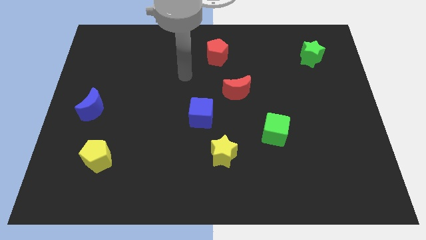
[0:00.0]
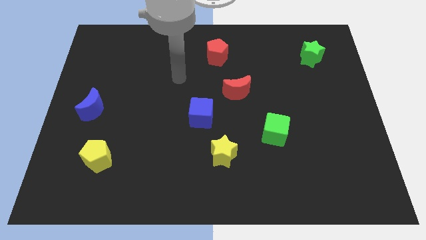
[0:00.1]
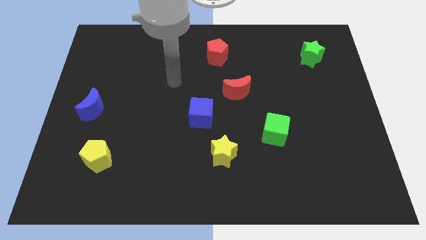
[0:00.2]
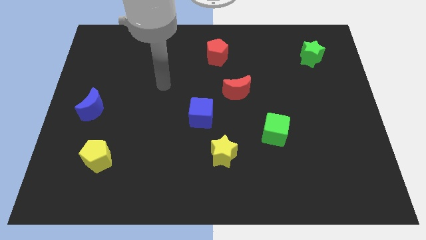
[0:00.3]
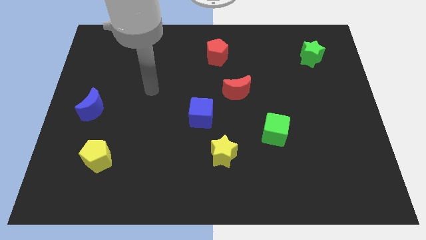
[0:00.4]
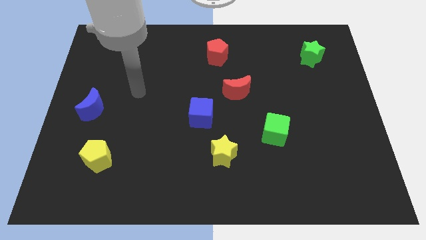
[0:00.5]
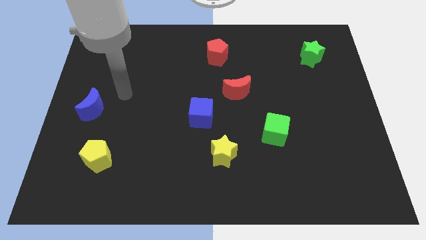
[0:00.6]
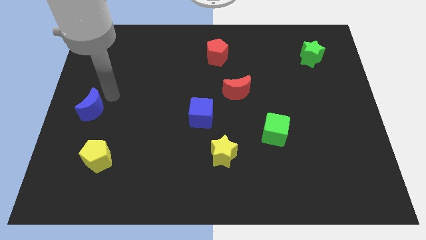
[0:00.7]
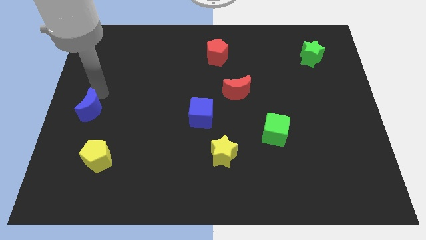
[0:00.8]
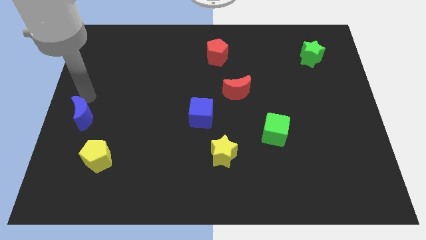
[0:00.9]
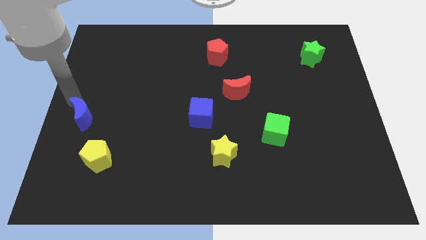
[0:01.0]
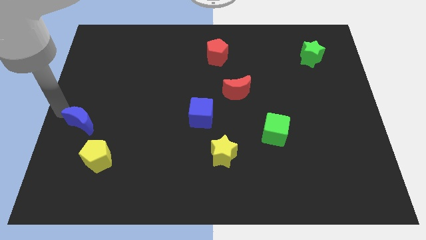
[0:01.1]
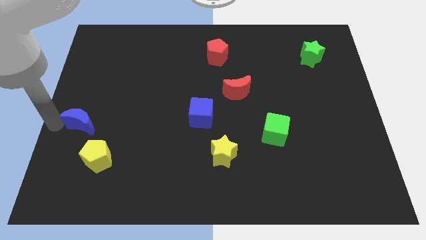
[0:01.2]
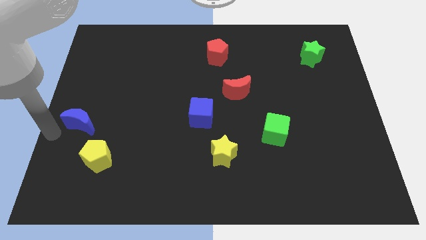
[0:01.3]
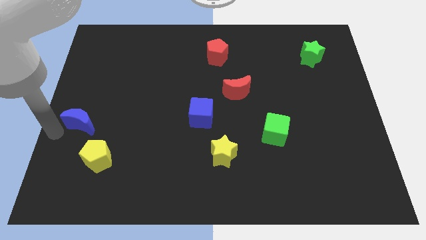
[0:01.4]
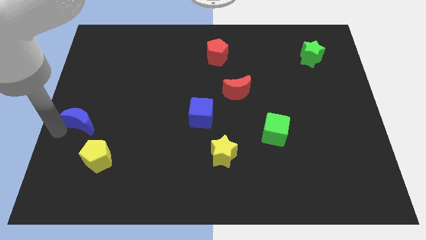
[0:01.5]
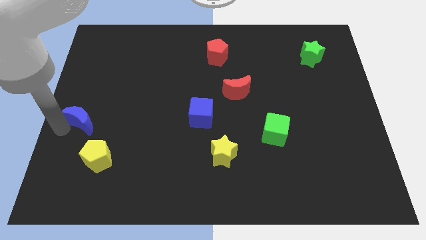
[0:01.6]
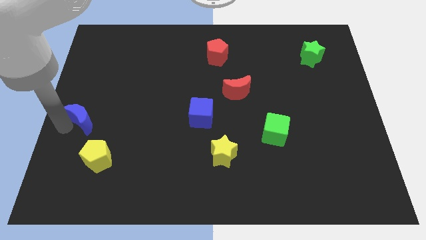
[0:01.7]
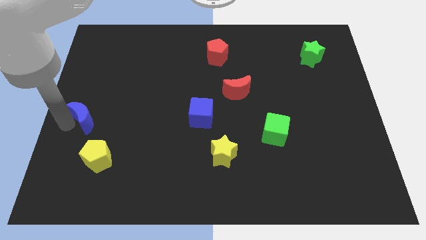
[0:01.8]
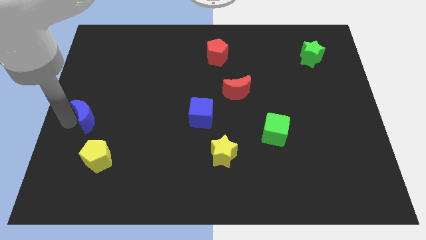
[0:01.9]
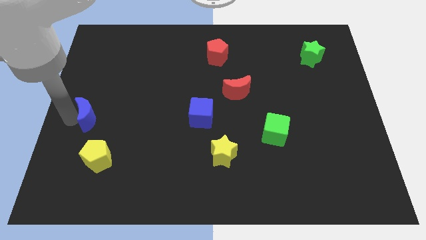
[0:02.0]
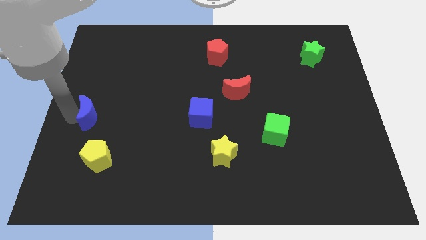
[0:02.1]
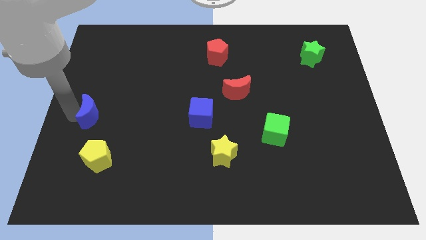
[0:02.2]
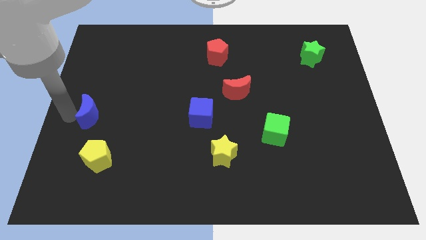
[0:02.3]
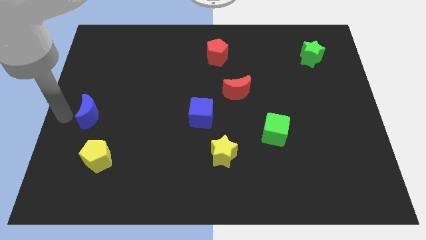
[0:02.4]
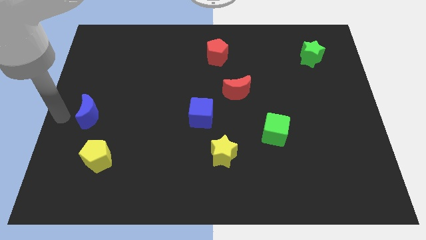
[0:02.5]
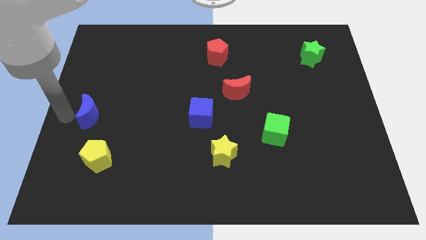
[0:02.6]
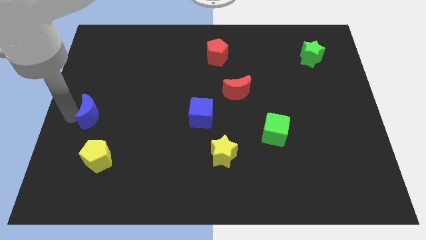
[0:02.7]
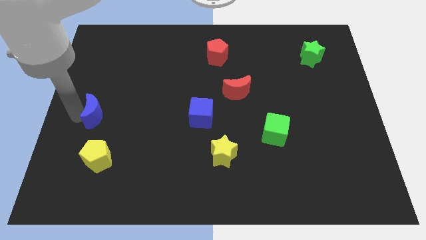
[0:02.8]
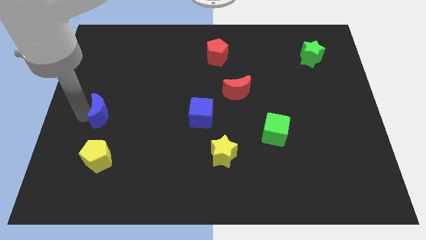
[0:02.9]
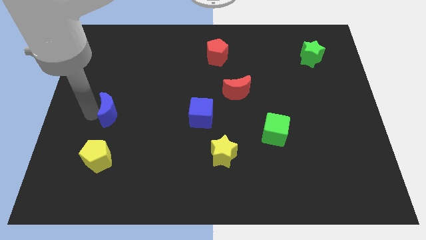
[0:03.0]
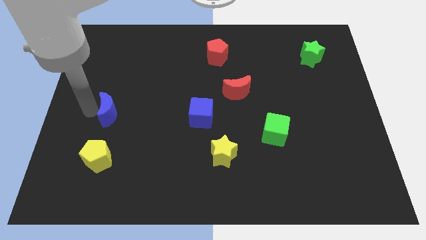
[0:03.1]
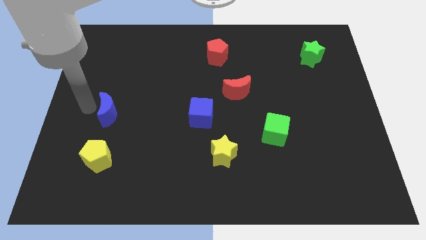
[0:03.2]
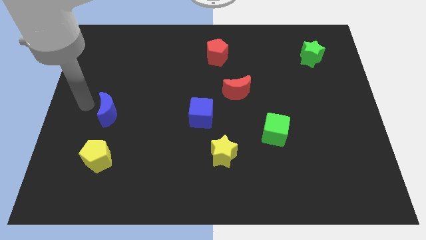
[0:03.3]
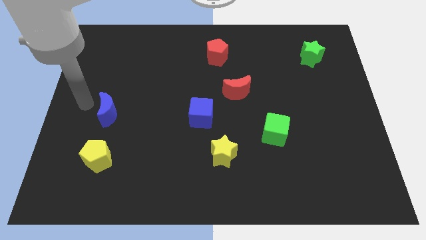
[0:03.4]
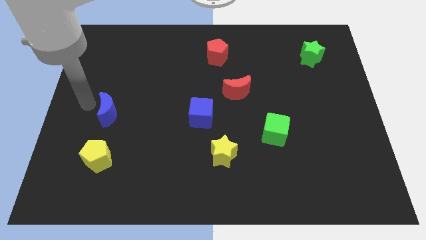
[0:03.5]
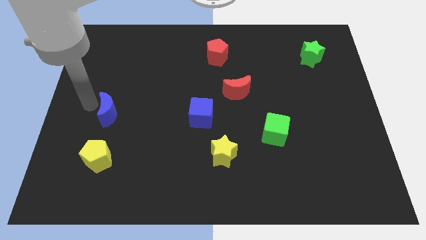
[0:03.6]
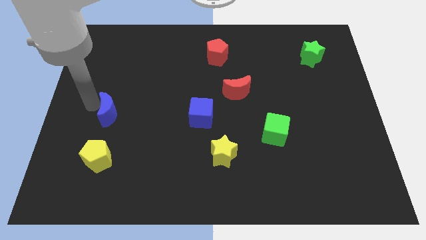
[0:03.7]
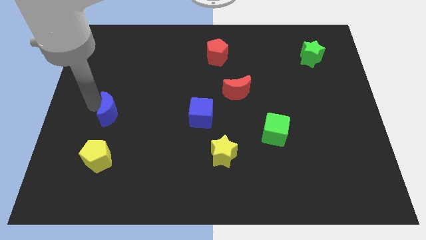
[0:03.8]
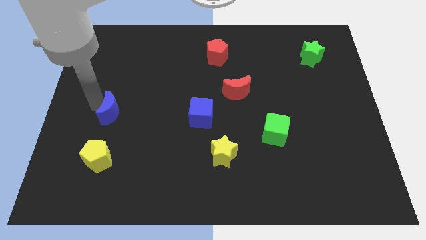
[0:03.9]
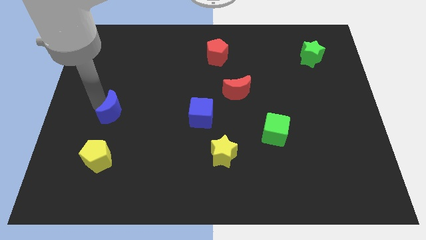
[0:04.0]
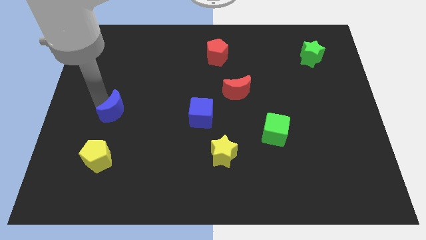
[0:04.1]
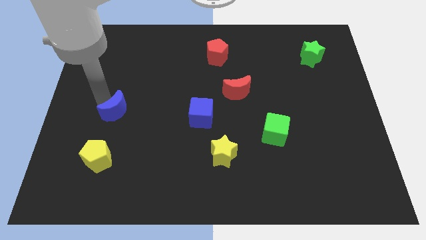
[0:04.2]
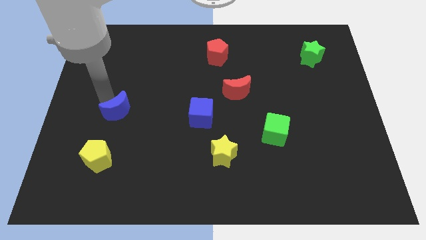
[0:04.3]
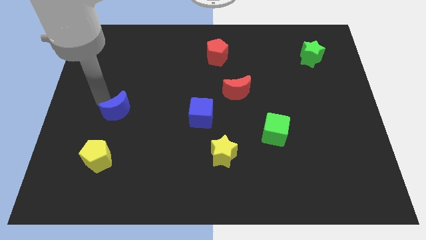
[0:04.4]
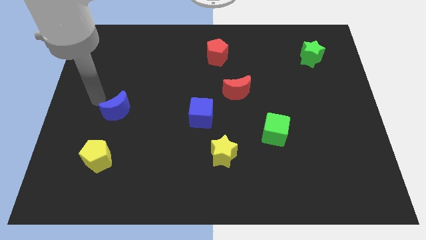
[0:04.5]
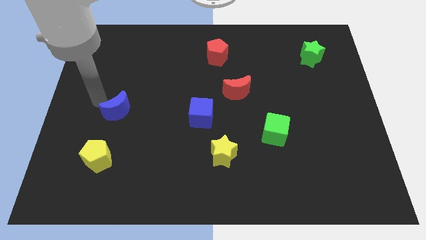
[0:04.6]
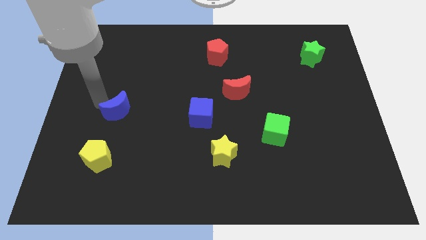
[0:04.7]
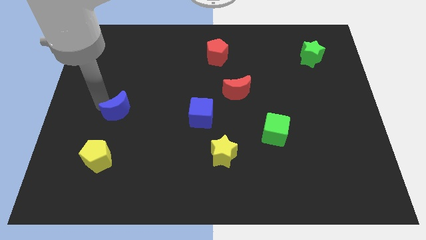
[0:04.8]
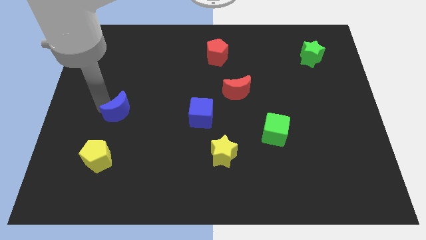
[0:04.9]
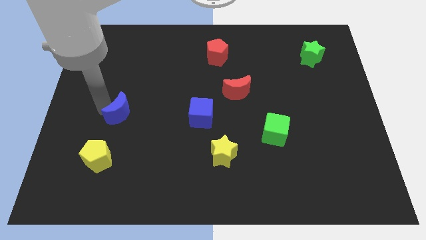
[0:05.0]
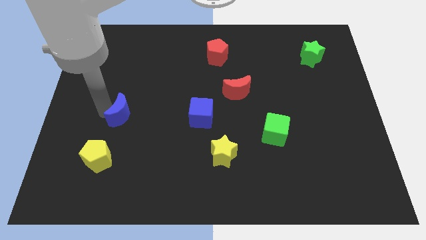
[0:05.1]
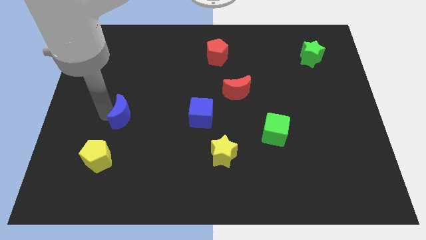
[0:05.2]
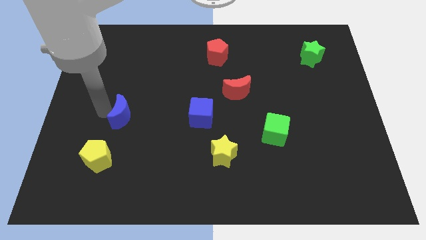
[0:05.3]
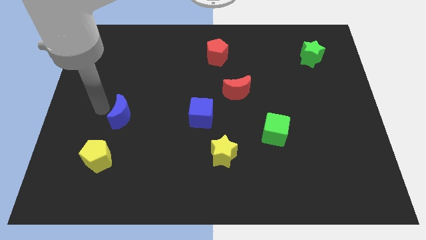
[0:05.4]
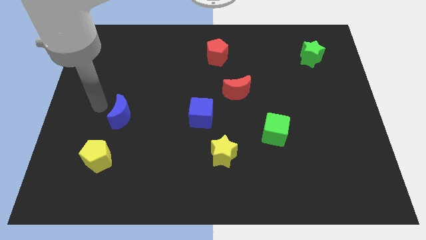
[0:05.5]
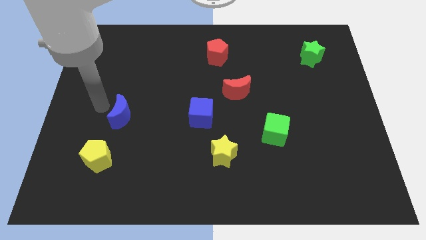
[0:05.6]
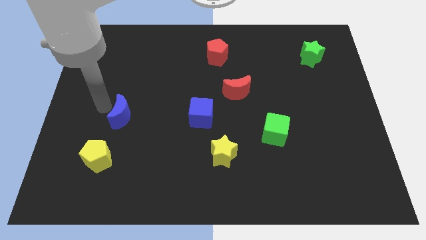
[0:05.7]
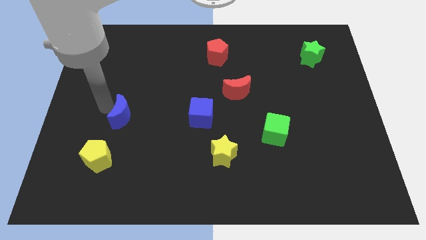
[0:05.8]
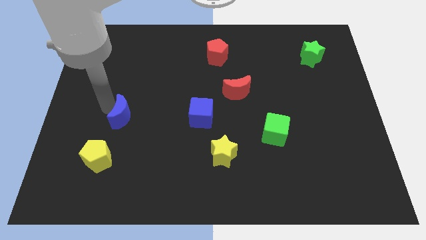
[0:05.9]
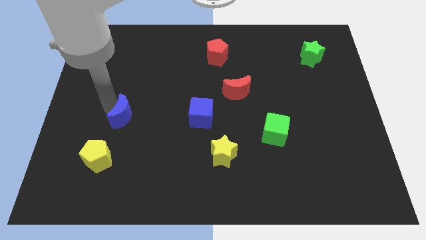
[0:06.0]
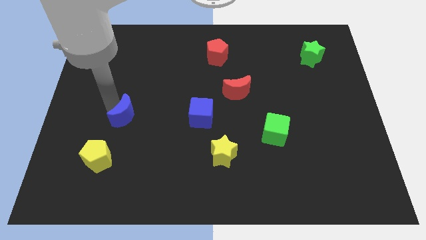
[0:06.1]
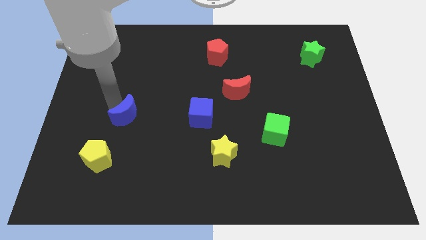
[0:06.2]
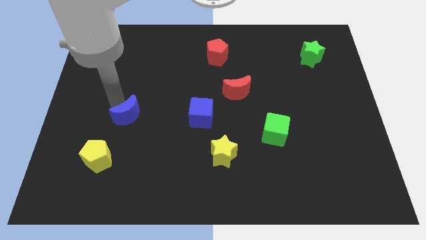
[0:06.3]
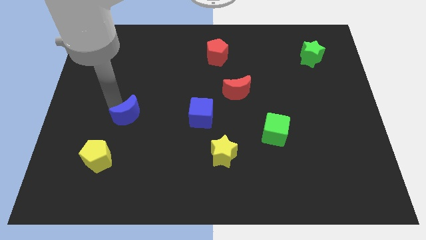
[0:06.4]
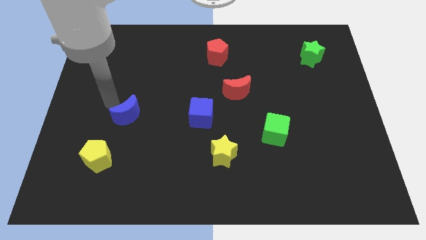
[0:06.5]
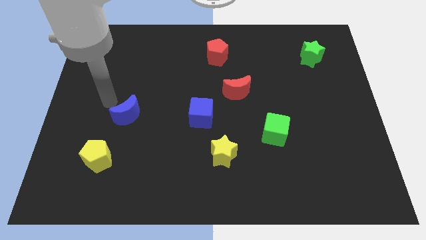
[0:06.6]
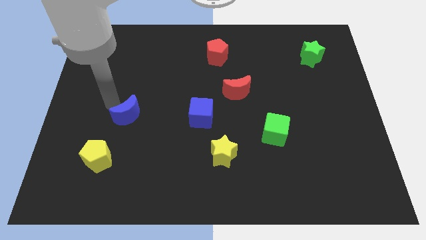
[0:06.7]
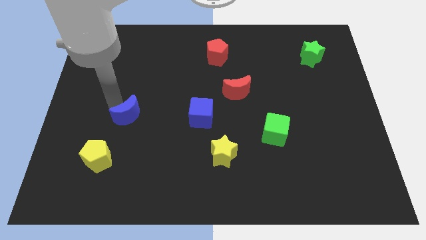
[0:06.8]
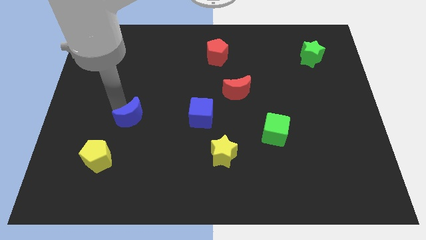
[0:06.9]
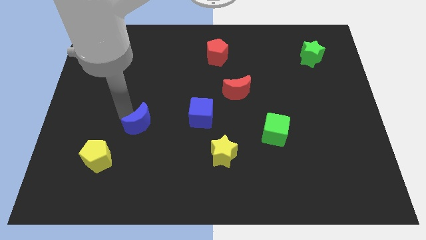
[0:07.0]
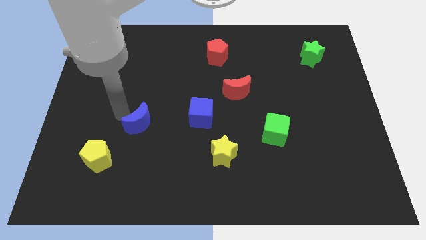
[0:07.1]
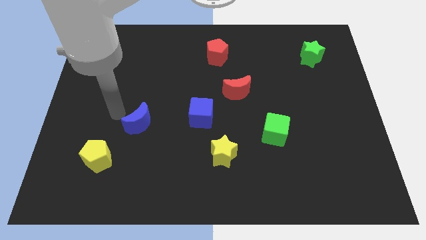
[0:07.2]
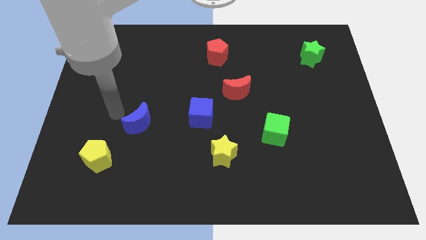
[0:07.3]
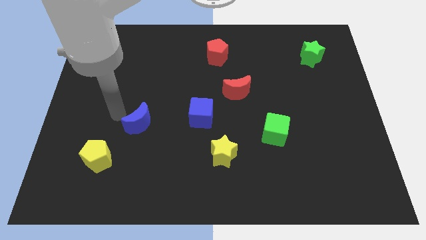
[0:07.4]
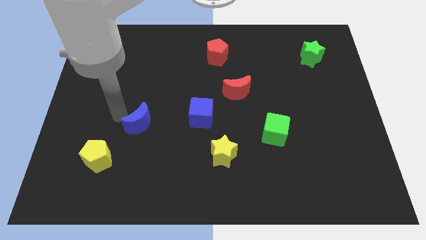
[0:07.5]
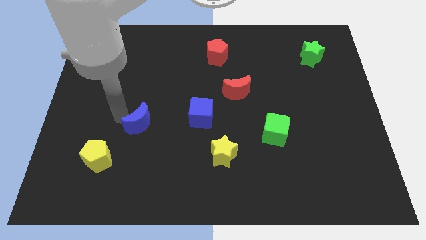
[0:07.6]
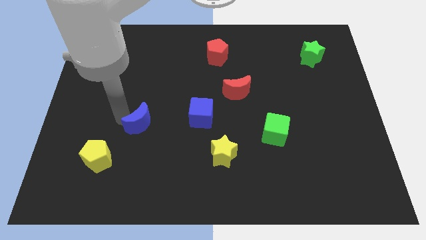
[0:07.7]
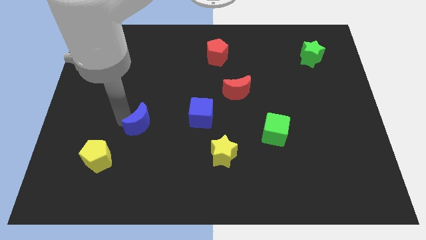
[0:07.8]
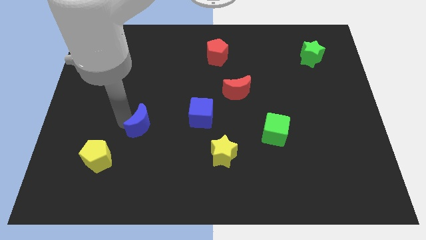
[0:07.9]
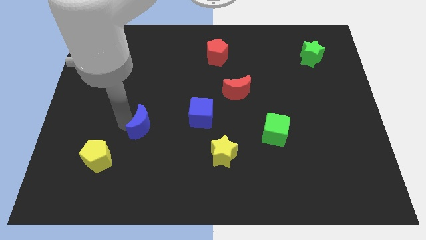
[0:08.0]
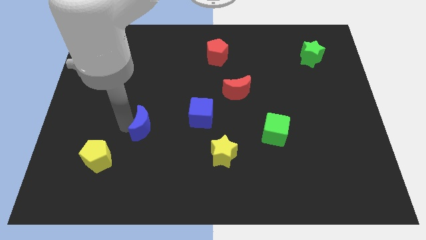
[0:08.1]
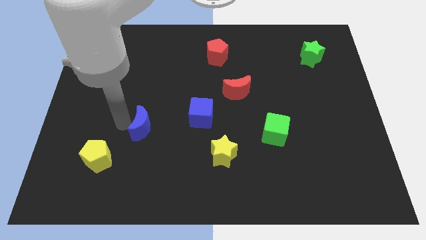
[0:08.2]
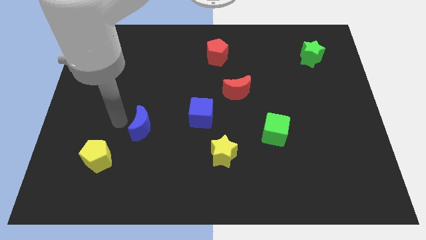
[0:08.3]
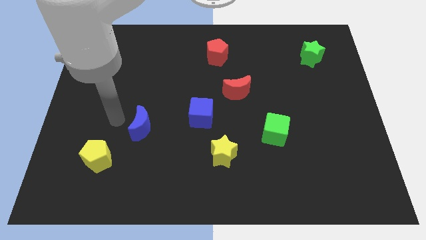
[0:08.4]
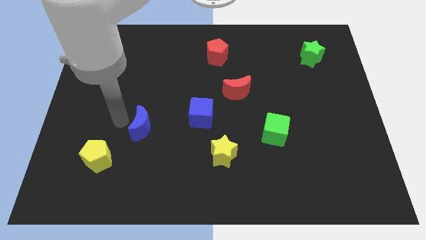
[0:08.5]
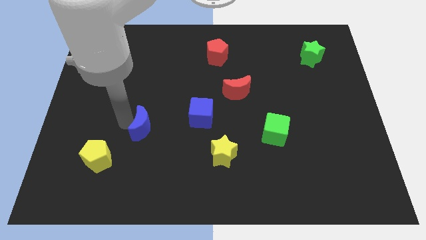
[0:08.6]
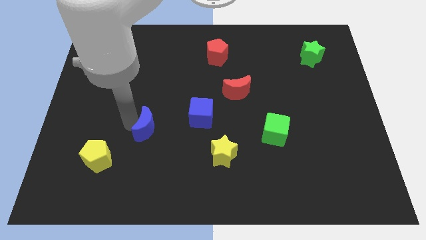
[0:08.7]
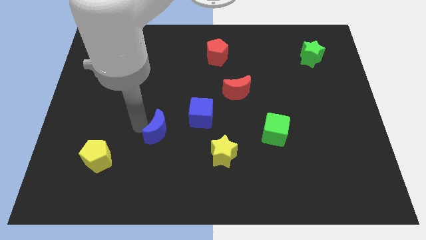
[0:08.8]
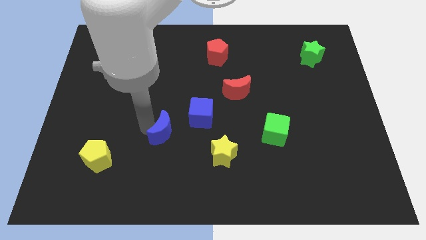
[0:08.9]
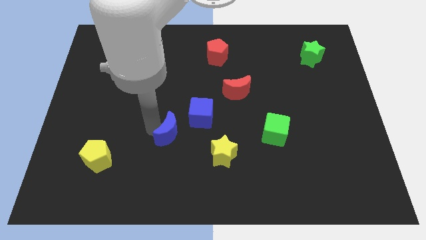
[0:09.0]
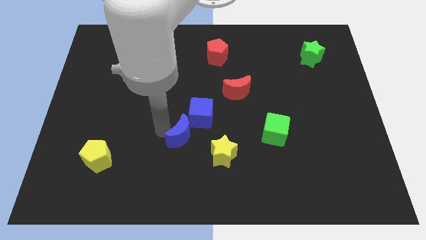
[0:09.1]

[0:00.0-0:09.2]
push the blue moon to the bottom side of the blue cube
